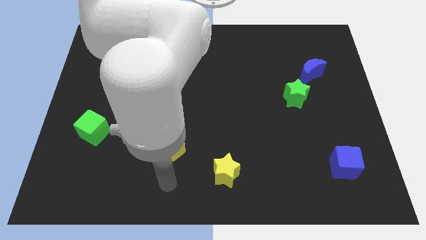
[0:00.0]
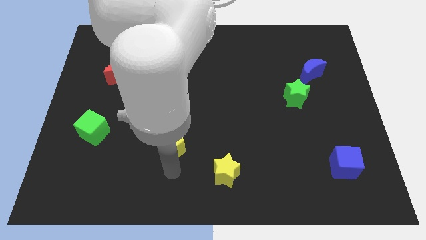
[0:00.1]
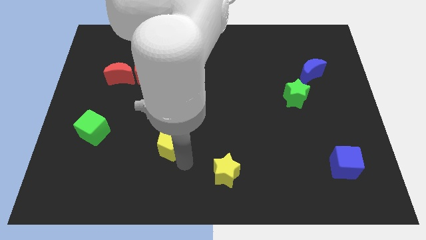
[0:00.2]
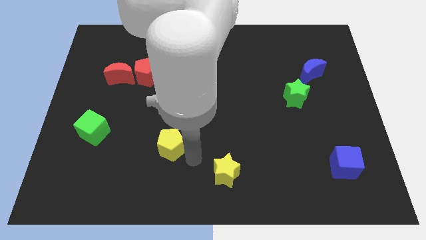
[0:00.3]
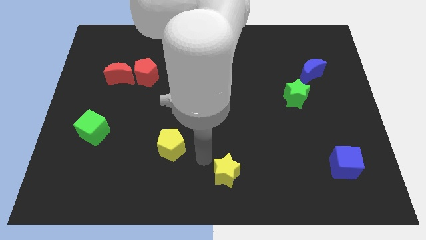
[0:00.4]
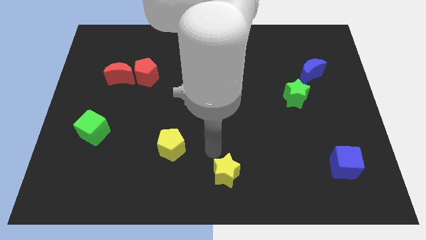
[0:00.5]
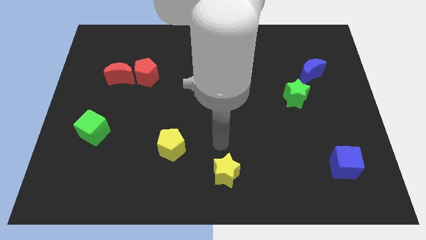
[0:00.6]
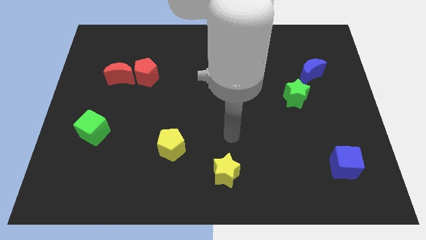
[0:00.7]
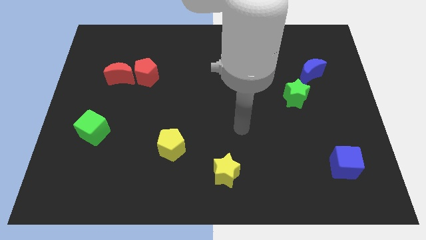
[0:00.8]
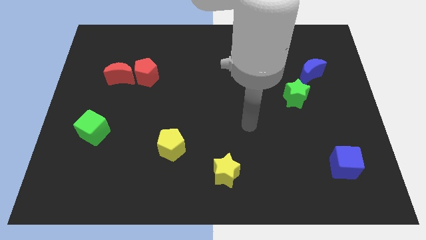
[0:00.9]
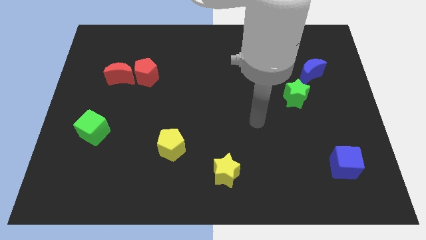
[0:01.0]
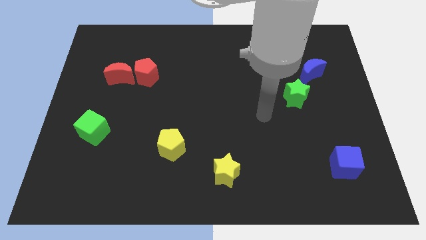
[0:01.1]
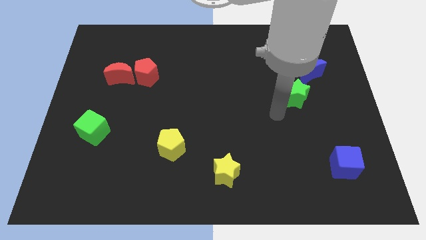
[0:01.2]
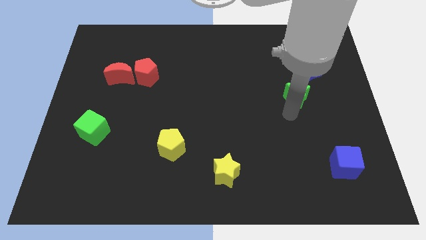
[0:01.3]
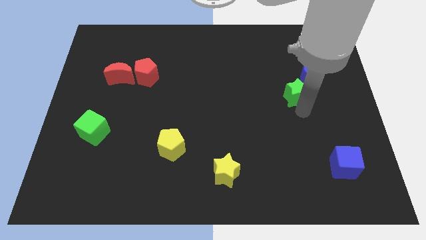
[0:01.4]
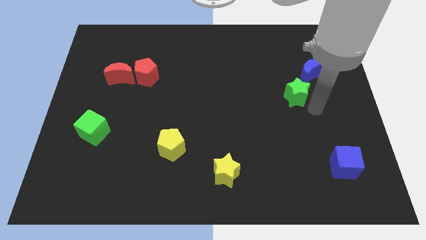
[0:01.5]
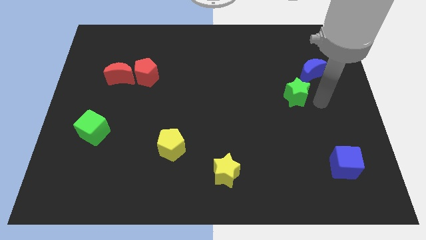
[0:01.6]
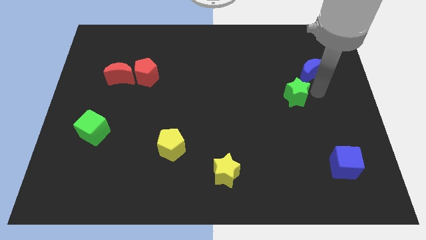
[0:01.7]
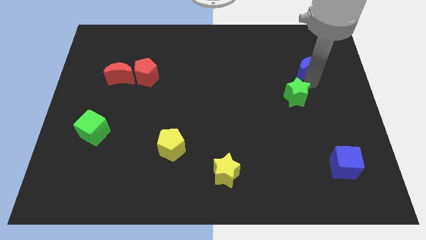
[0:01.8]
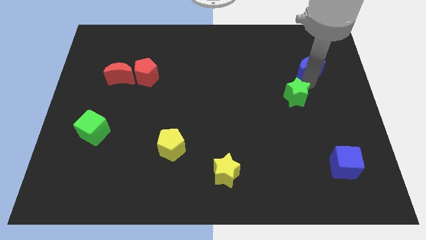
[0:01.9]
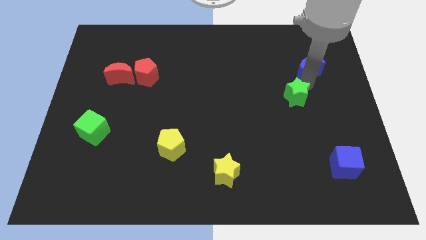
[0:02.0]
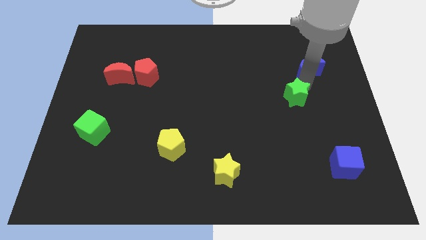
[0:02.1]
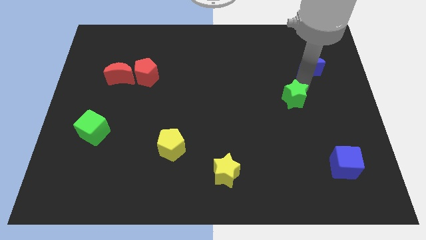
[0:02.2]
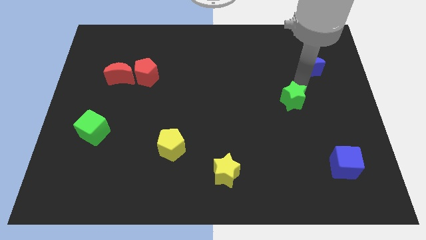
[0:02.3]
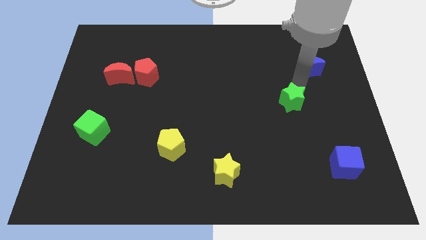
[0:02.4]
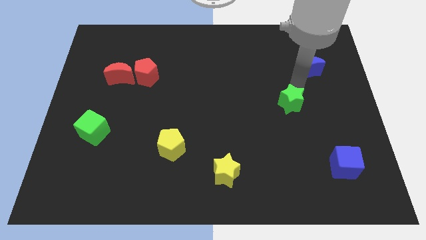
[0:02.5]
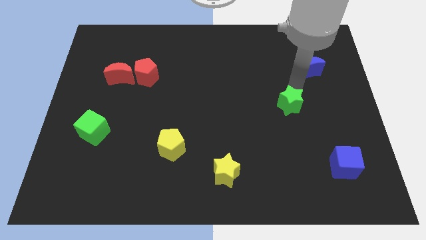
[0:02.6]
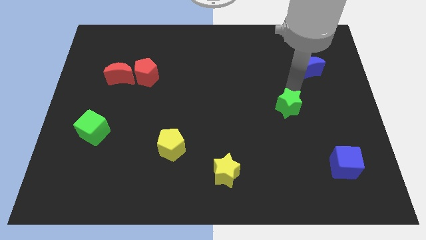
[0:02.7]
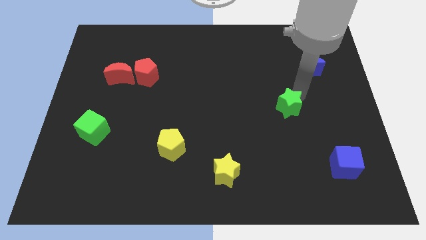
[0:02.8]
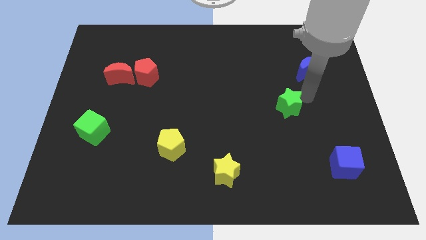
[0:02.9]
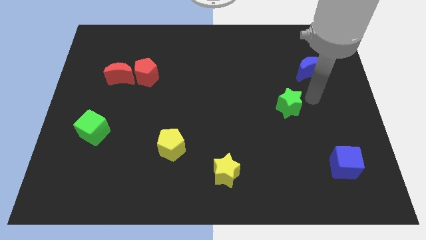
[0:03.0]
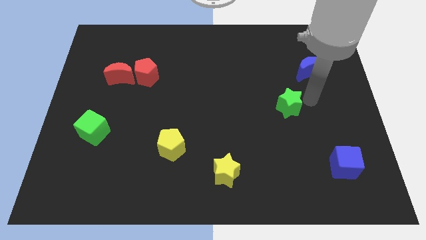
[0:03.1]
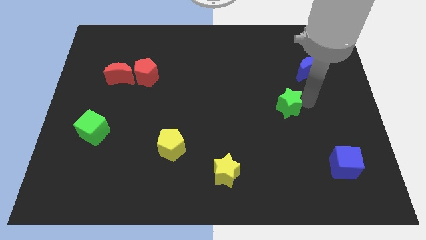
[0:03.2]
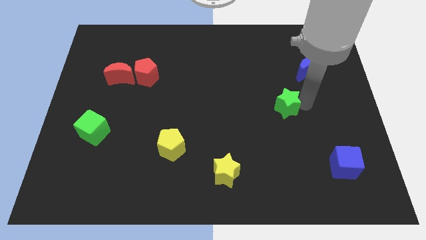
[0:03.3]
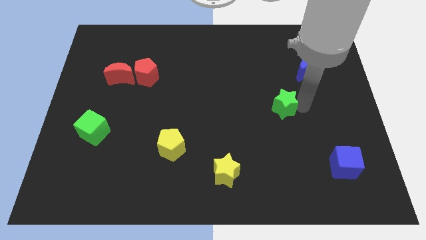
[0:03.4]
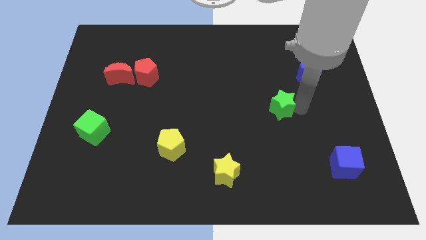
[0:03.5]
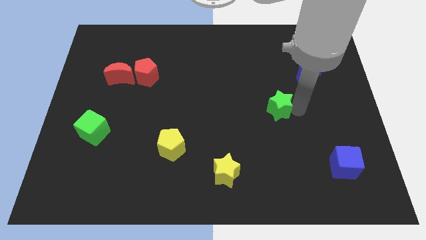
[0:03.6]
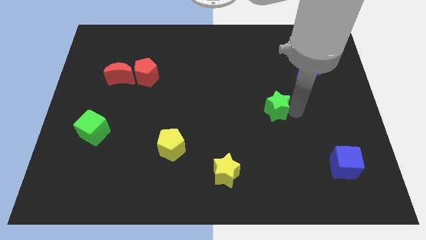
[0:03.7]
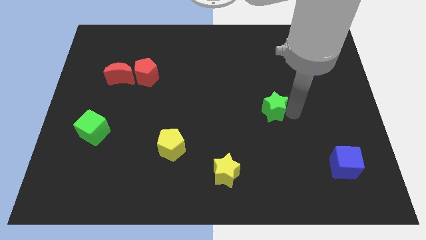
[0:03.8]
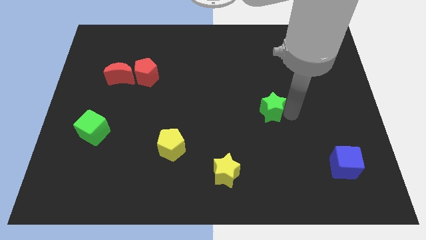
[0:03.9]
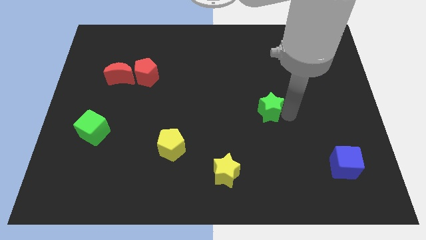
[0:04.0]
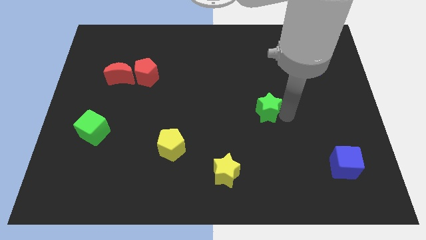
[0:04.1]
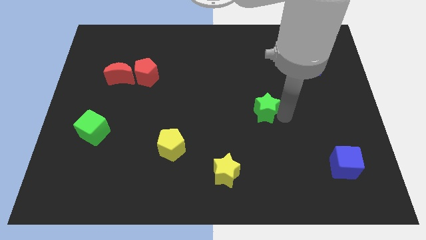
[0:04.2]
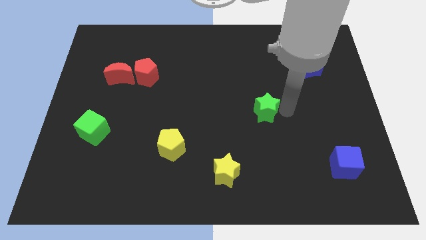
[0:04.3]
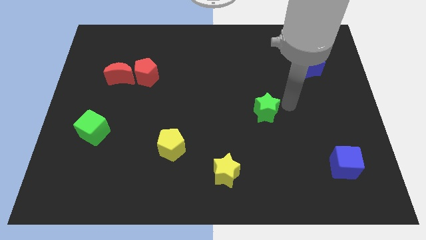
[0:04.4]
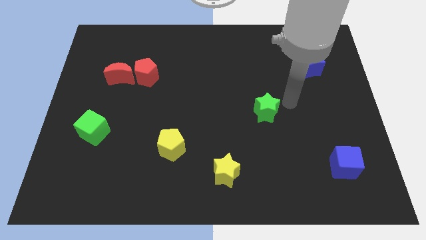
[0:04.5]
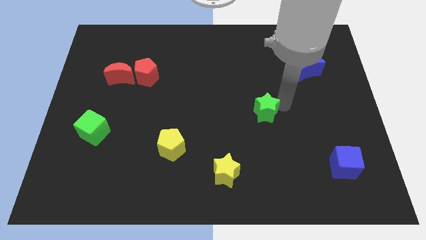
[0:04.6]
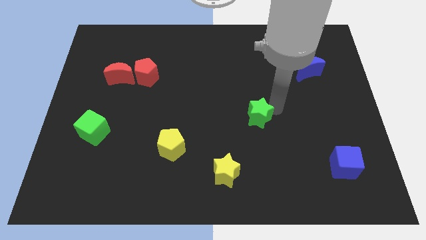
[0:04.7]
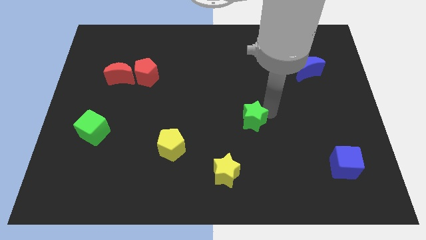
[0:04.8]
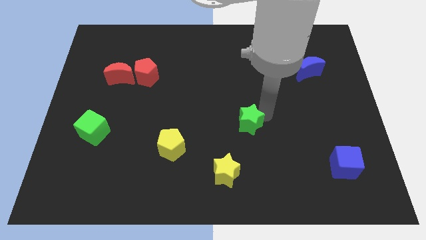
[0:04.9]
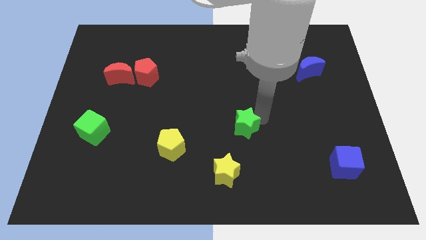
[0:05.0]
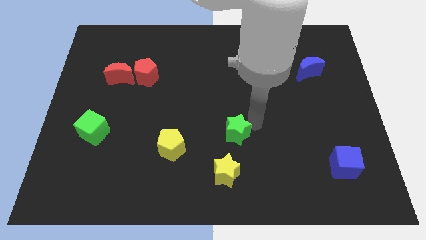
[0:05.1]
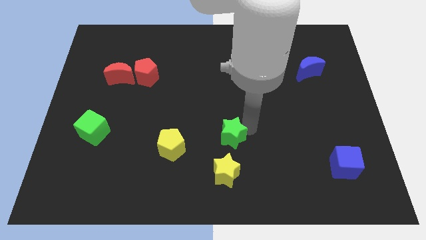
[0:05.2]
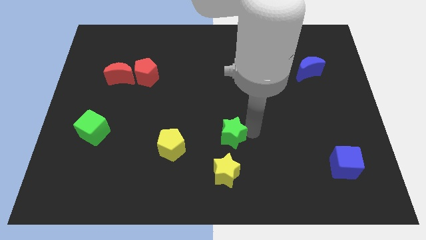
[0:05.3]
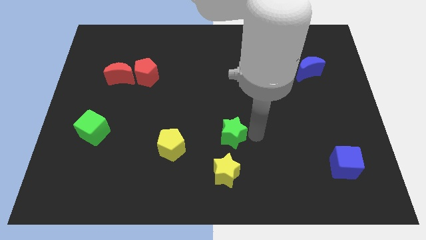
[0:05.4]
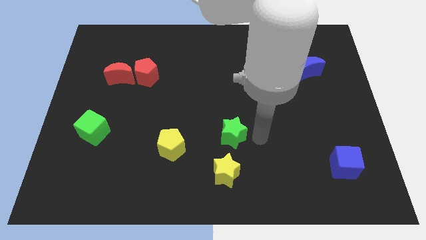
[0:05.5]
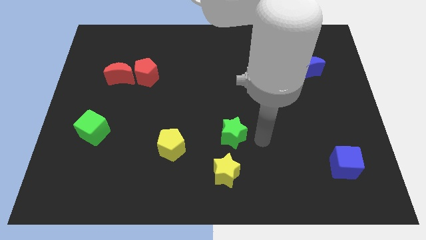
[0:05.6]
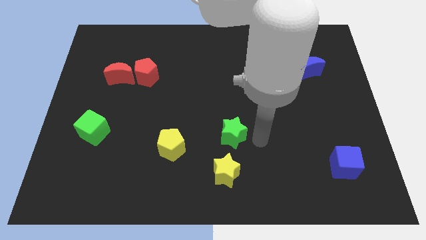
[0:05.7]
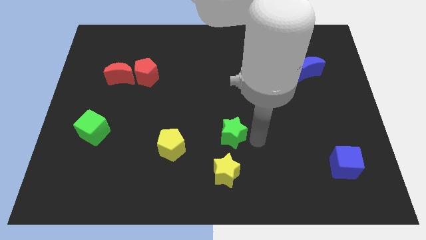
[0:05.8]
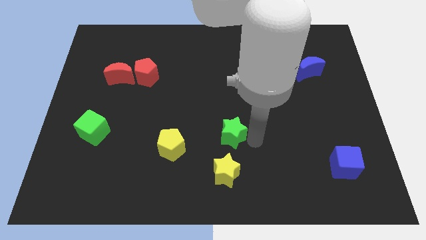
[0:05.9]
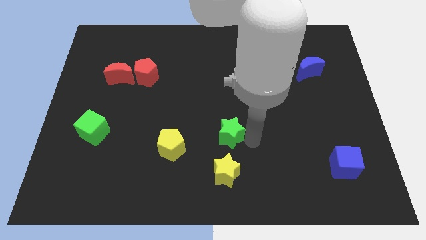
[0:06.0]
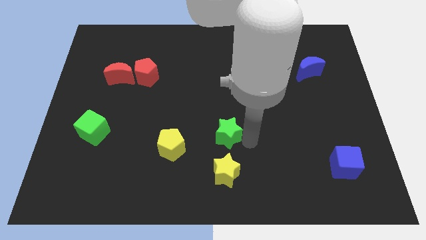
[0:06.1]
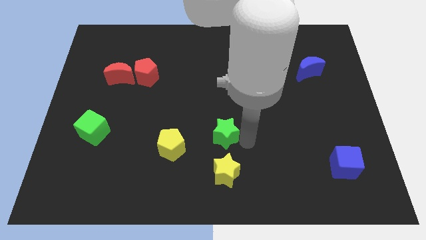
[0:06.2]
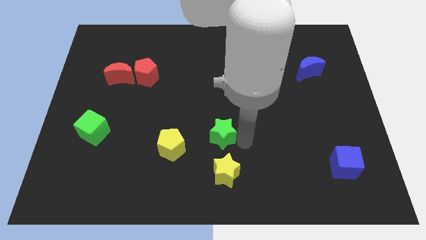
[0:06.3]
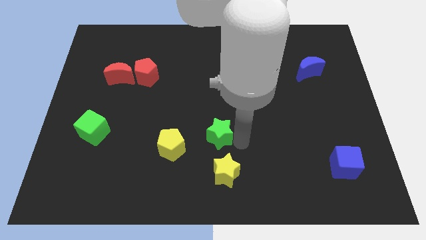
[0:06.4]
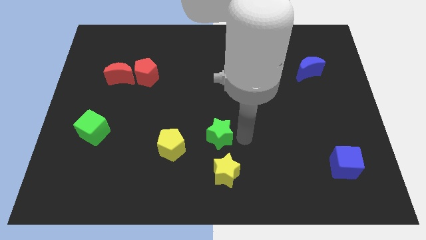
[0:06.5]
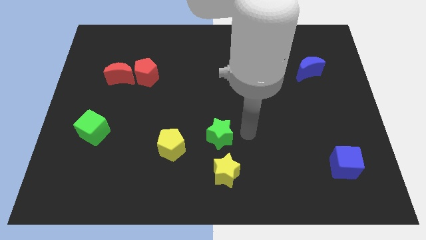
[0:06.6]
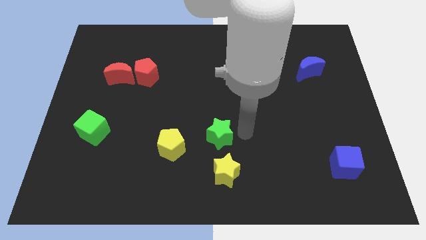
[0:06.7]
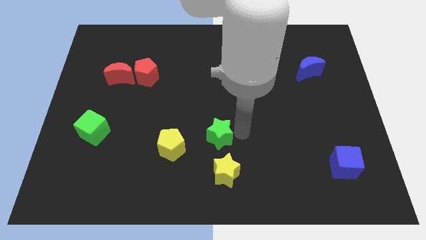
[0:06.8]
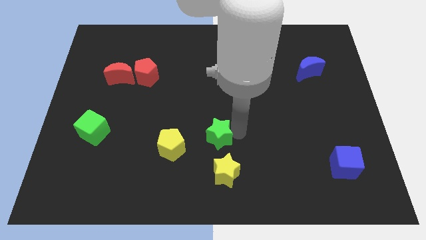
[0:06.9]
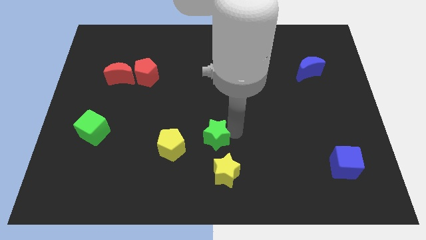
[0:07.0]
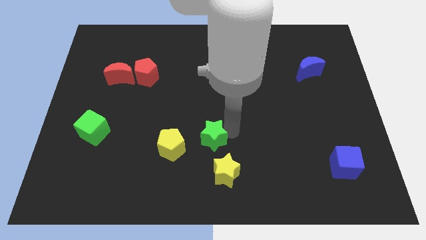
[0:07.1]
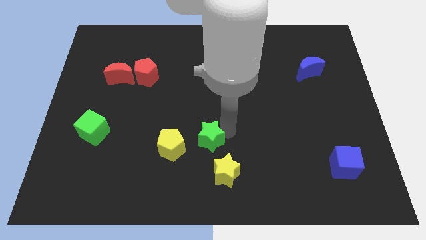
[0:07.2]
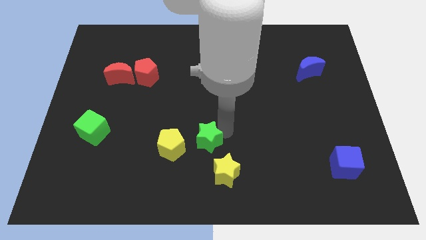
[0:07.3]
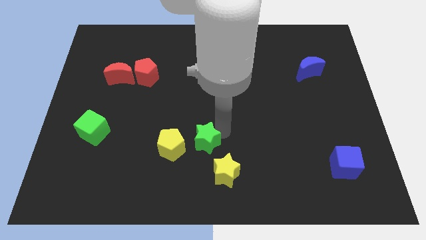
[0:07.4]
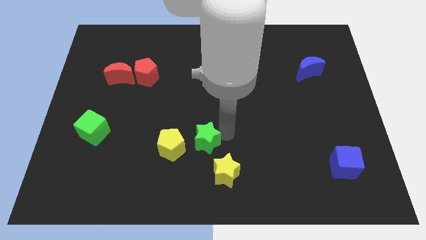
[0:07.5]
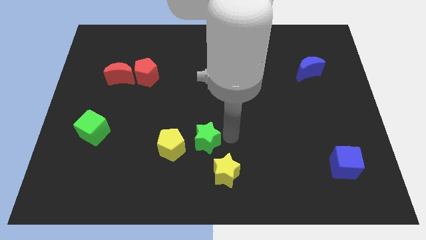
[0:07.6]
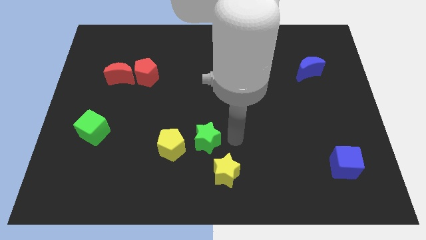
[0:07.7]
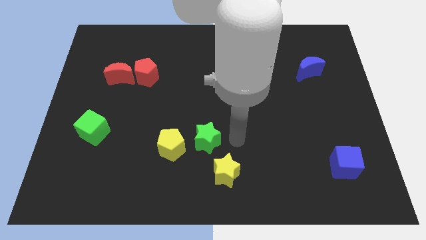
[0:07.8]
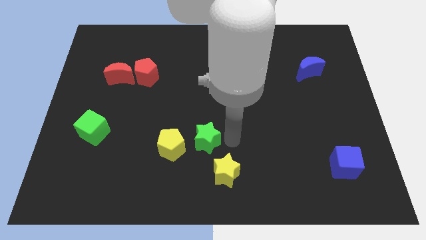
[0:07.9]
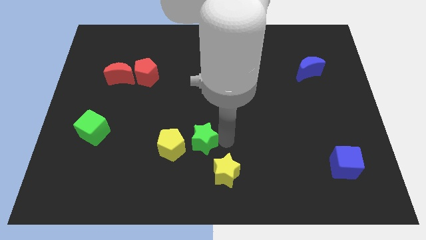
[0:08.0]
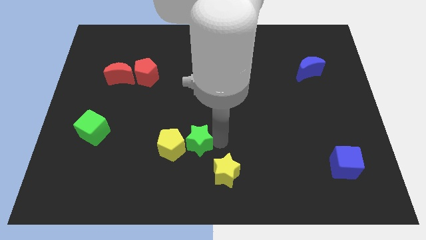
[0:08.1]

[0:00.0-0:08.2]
move the green star next to the yellow pentagon

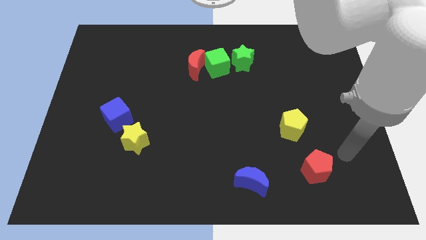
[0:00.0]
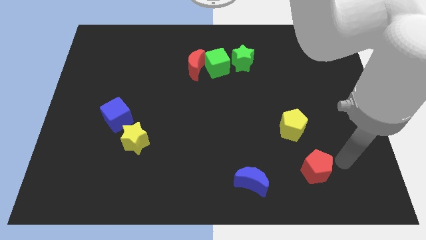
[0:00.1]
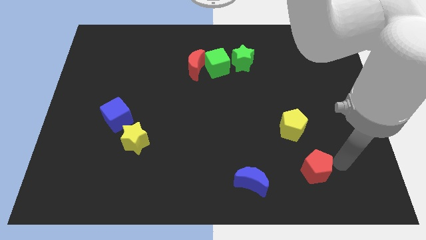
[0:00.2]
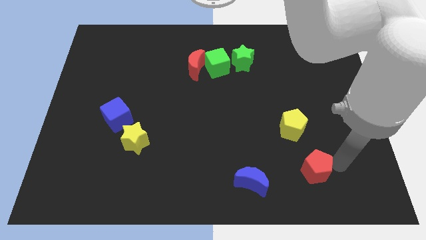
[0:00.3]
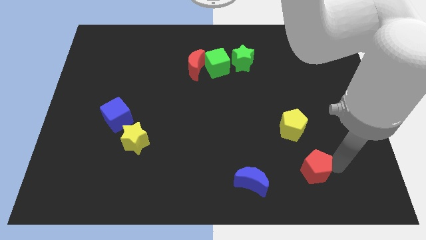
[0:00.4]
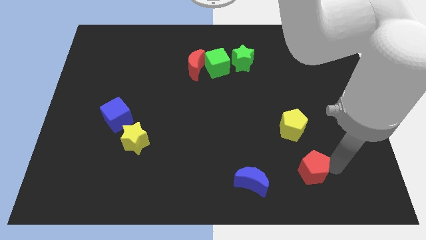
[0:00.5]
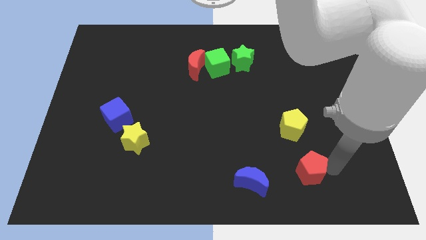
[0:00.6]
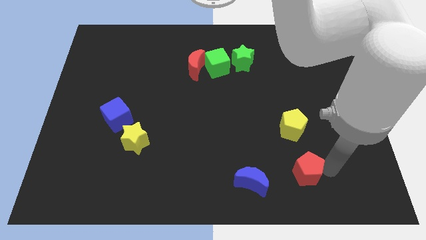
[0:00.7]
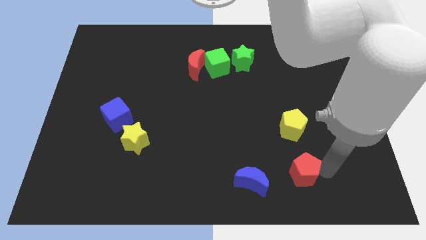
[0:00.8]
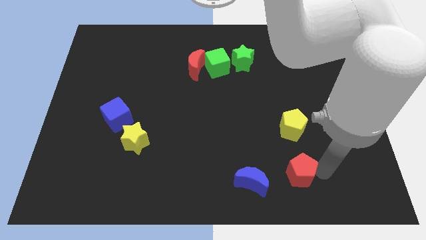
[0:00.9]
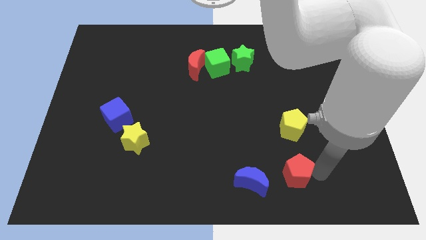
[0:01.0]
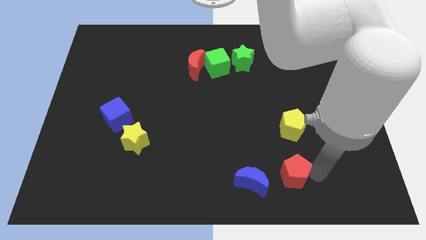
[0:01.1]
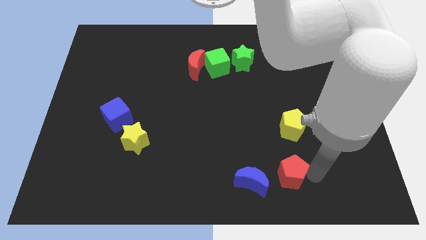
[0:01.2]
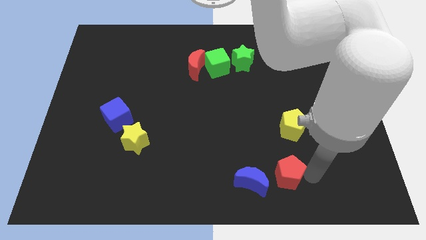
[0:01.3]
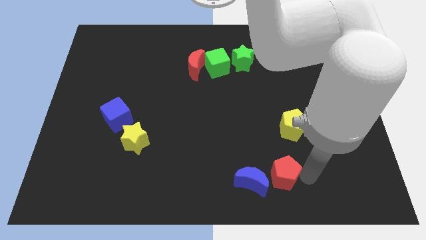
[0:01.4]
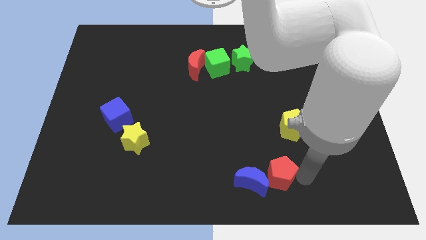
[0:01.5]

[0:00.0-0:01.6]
push the red pentagon towards the blue moon
